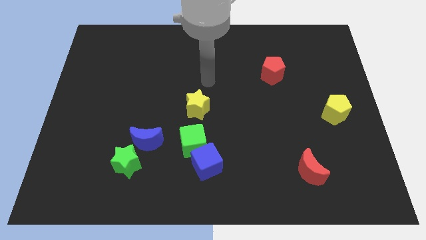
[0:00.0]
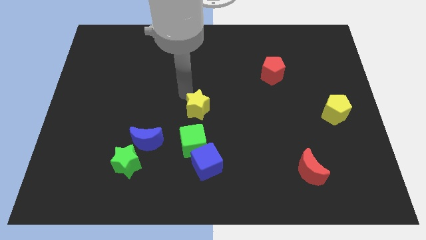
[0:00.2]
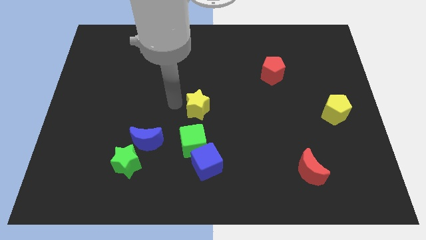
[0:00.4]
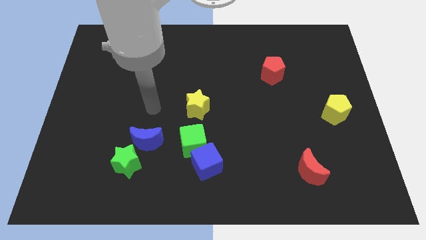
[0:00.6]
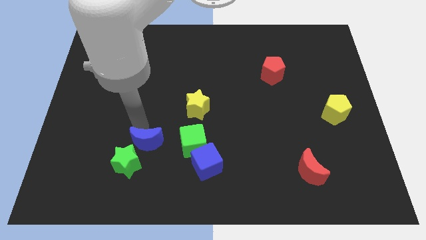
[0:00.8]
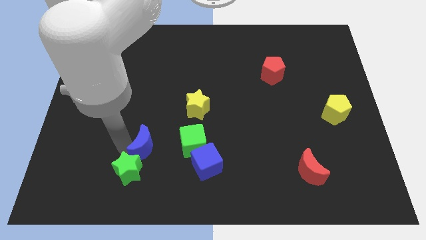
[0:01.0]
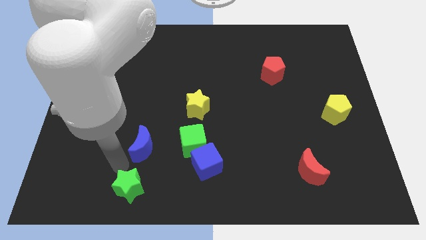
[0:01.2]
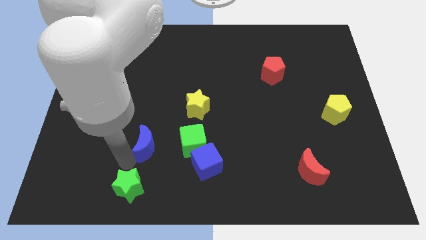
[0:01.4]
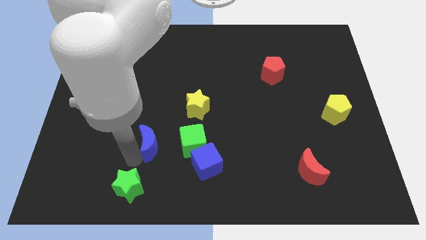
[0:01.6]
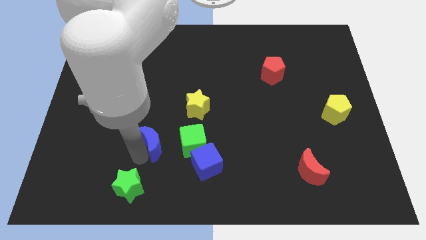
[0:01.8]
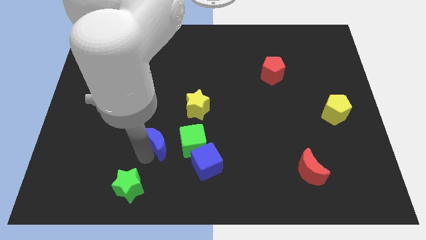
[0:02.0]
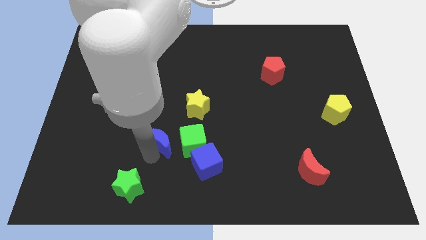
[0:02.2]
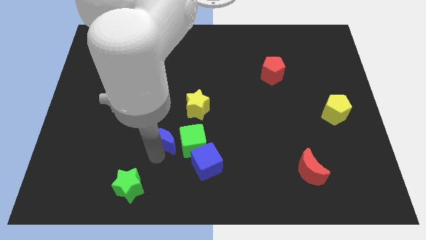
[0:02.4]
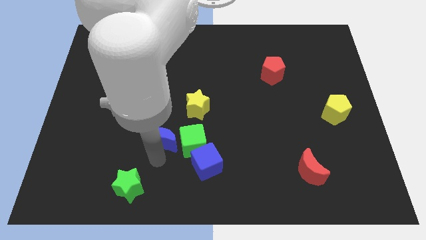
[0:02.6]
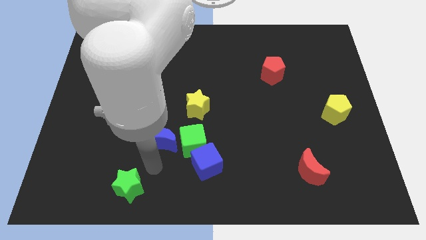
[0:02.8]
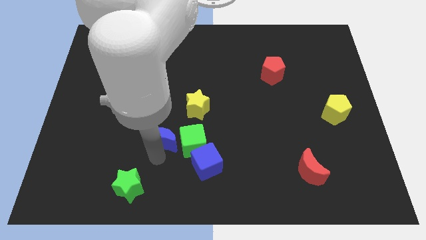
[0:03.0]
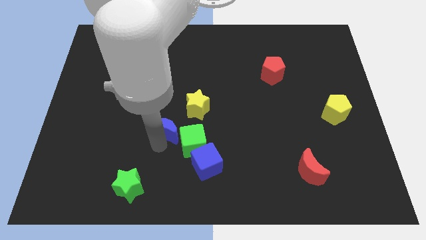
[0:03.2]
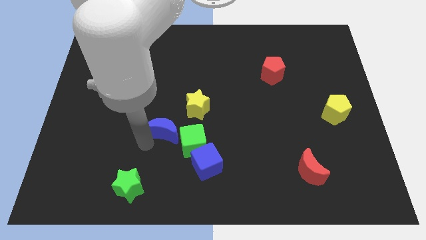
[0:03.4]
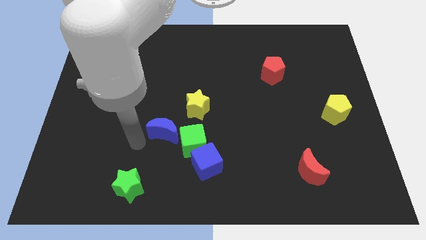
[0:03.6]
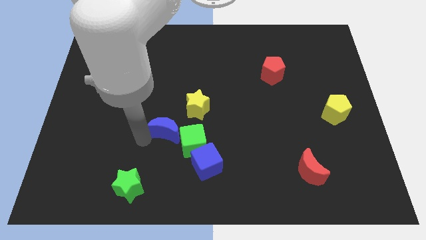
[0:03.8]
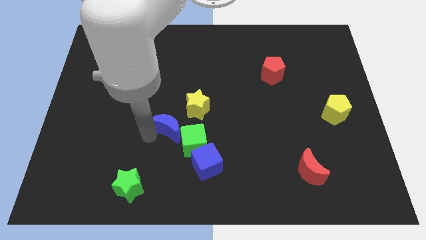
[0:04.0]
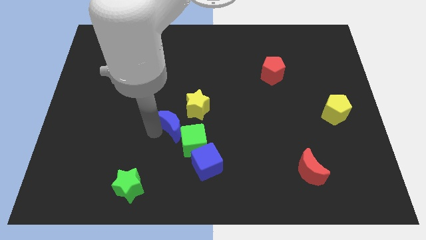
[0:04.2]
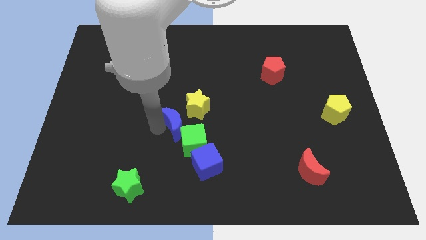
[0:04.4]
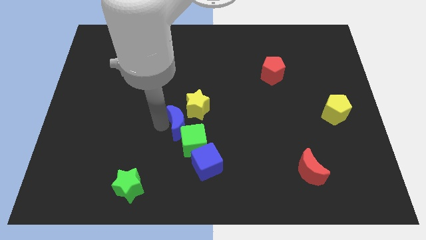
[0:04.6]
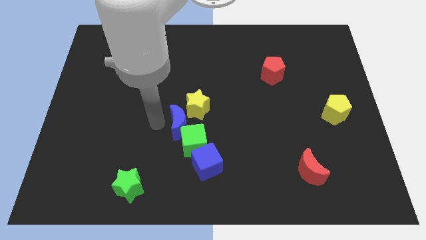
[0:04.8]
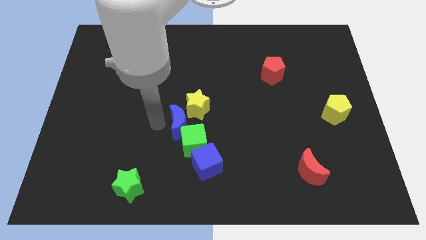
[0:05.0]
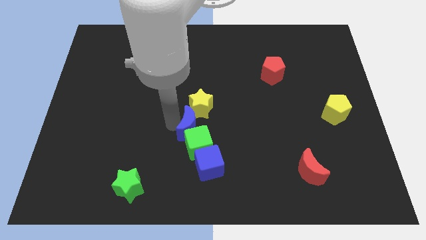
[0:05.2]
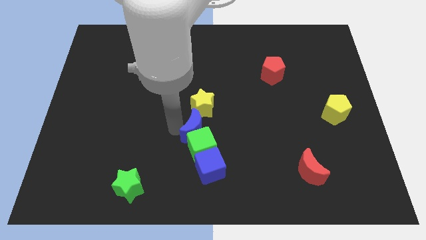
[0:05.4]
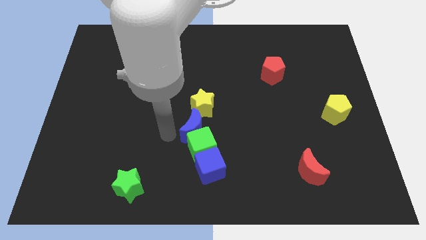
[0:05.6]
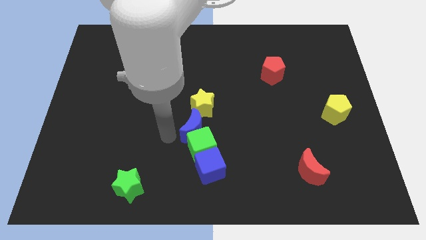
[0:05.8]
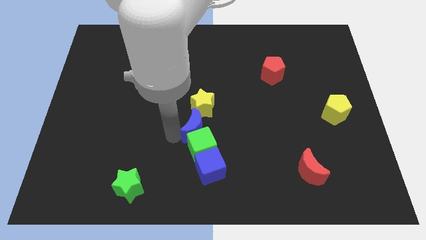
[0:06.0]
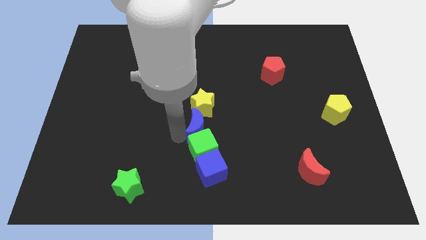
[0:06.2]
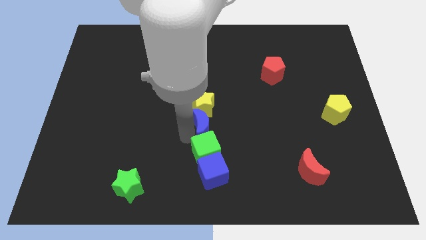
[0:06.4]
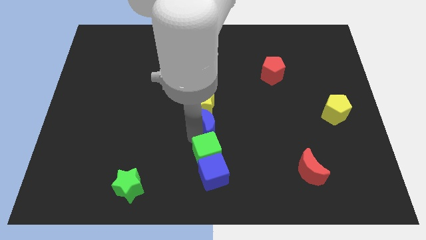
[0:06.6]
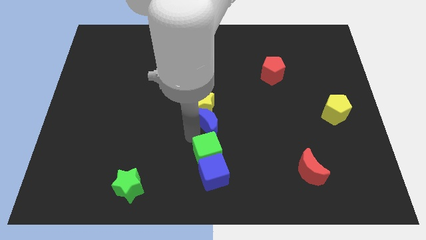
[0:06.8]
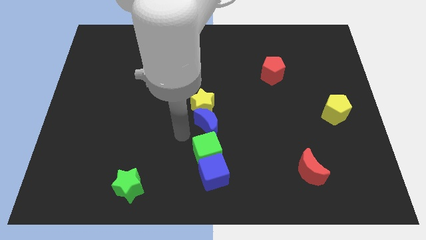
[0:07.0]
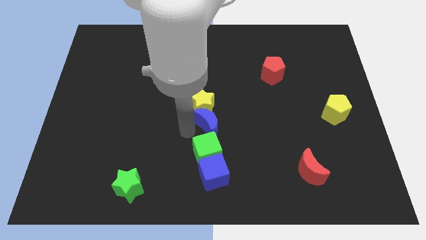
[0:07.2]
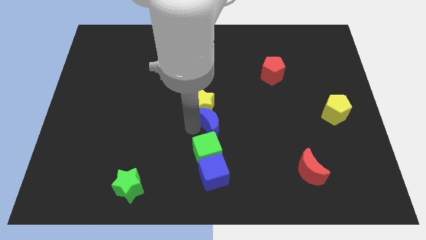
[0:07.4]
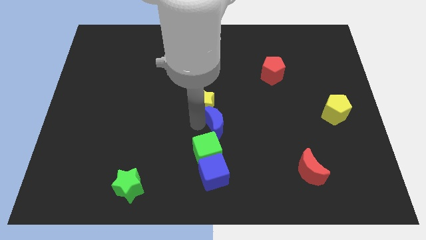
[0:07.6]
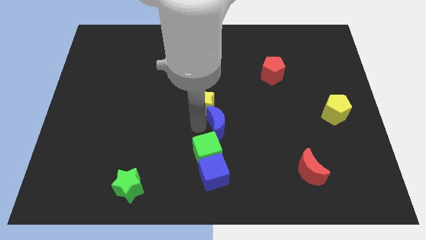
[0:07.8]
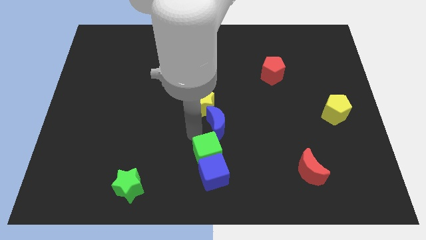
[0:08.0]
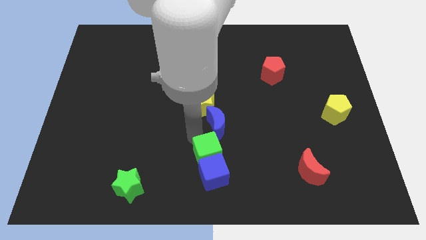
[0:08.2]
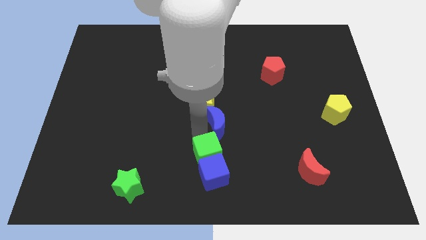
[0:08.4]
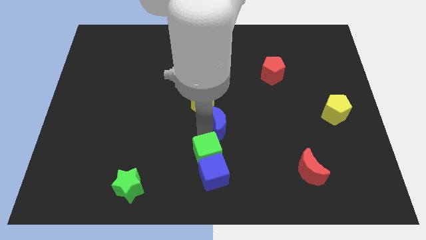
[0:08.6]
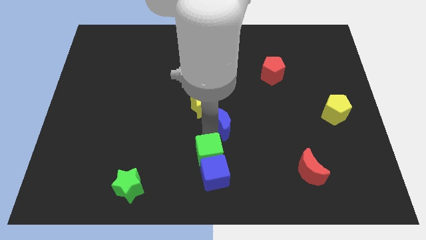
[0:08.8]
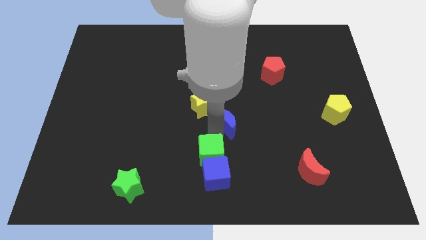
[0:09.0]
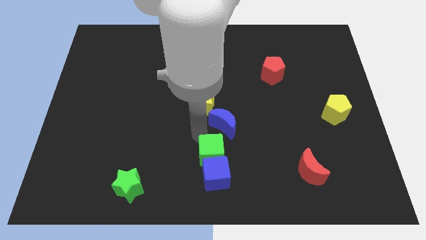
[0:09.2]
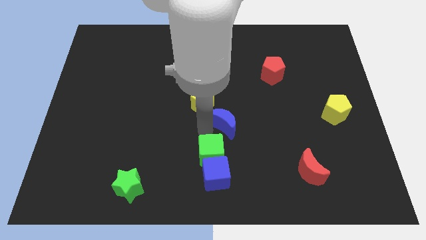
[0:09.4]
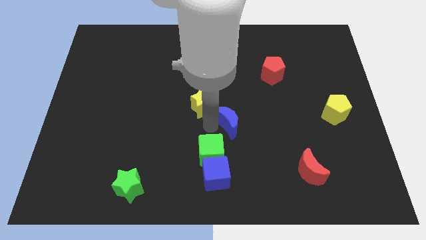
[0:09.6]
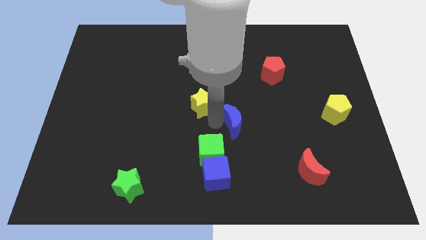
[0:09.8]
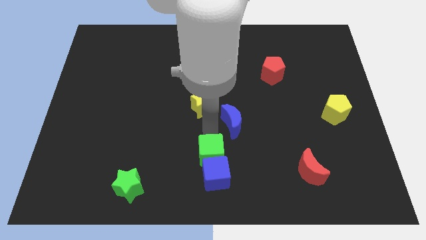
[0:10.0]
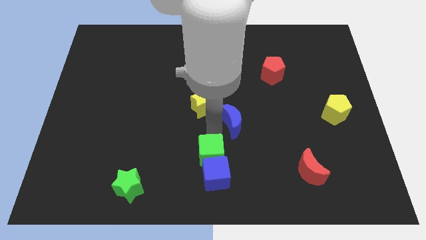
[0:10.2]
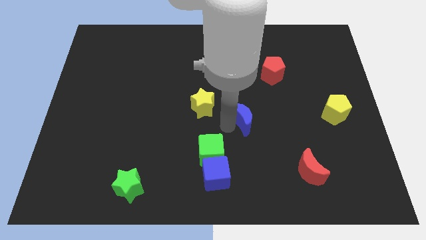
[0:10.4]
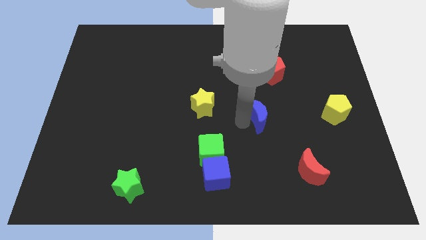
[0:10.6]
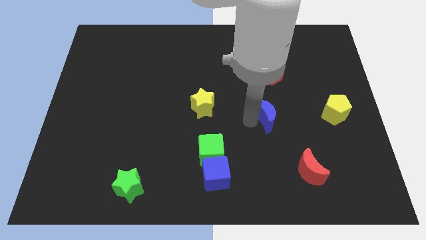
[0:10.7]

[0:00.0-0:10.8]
slide the blue moon below the red pentagon

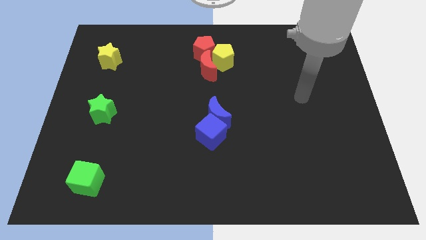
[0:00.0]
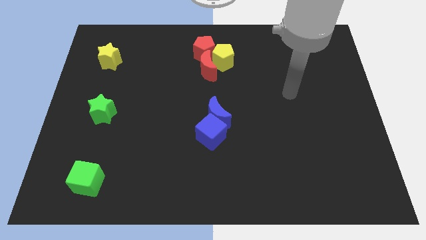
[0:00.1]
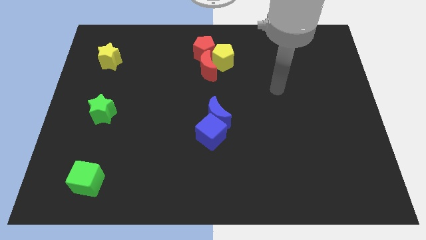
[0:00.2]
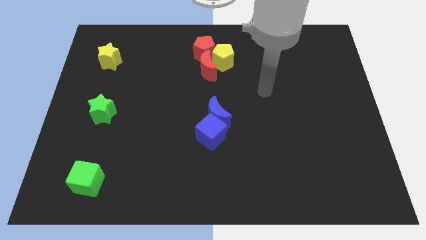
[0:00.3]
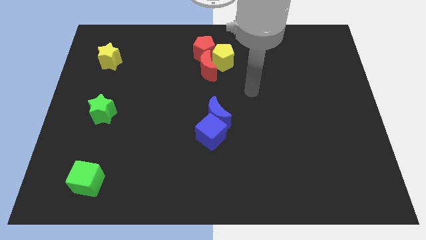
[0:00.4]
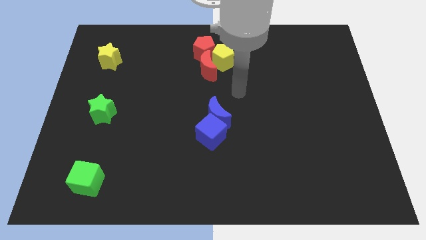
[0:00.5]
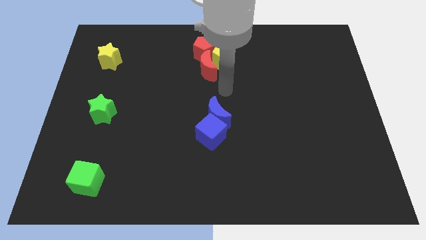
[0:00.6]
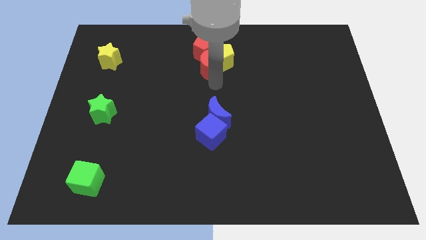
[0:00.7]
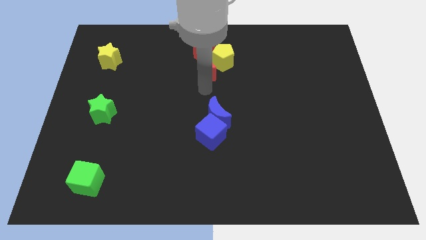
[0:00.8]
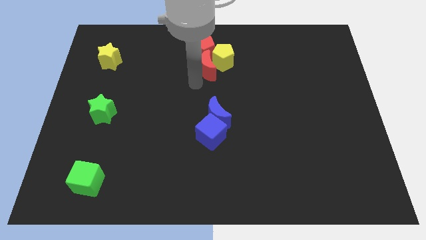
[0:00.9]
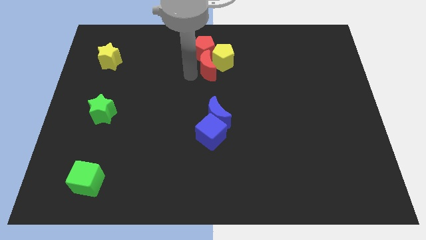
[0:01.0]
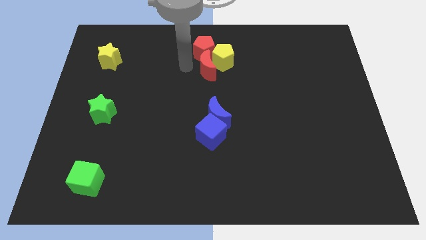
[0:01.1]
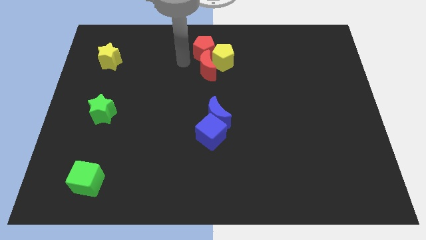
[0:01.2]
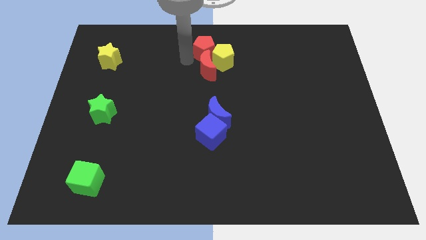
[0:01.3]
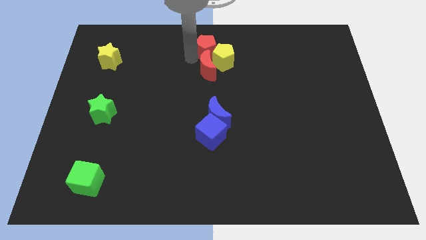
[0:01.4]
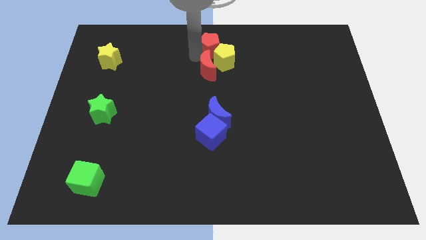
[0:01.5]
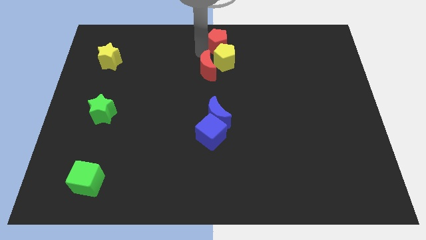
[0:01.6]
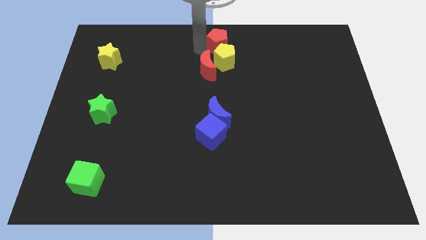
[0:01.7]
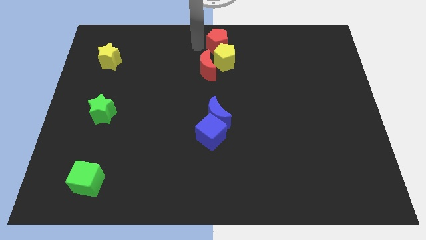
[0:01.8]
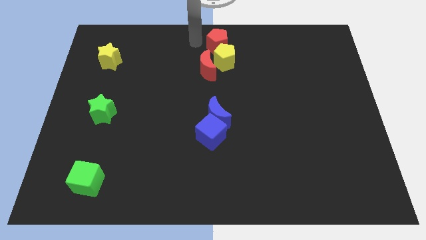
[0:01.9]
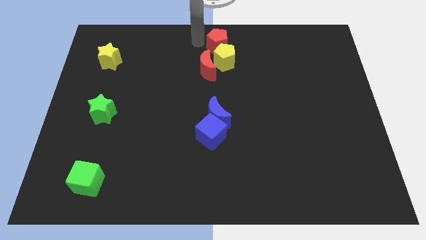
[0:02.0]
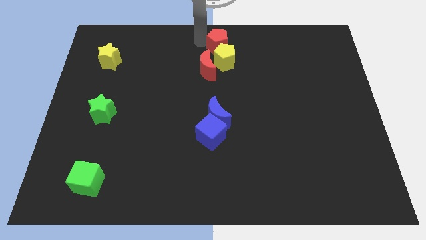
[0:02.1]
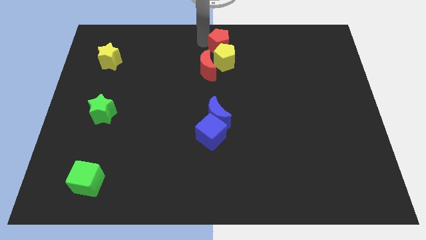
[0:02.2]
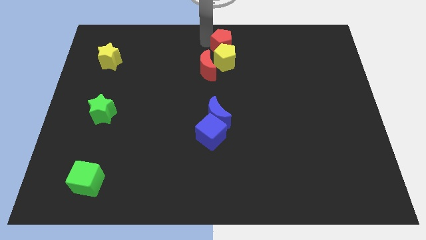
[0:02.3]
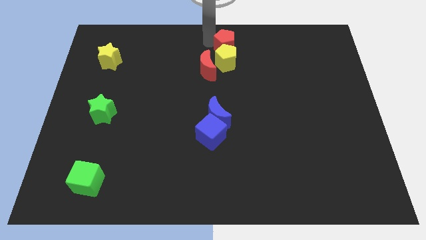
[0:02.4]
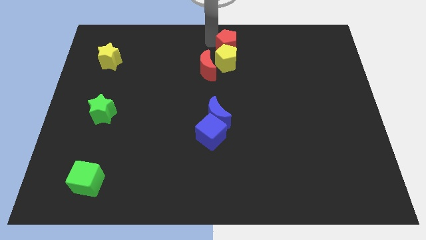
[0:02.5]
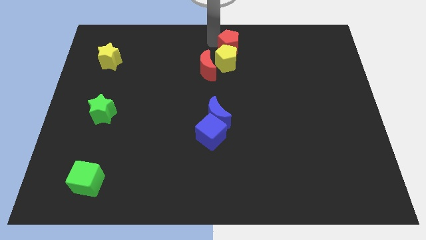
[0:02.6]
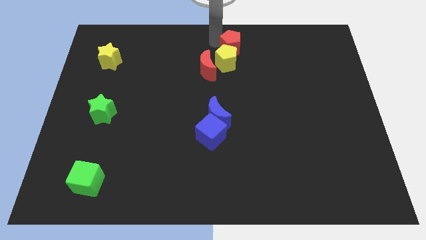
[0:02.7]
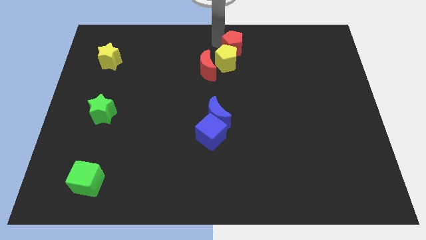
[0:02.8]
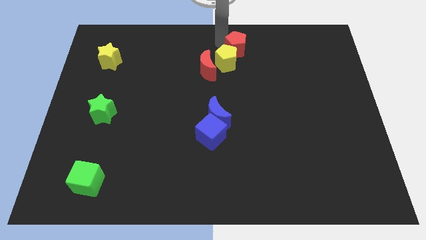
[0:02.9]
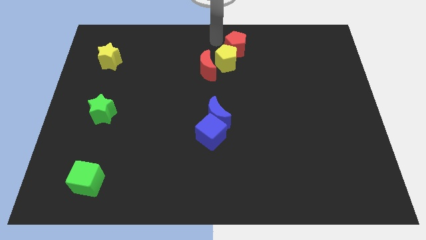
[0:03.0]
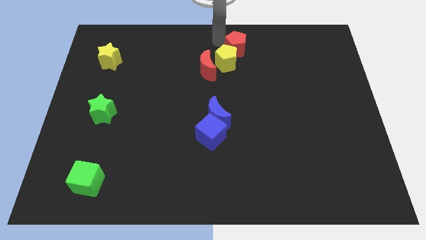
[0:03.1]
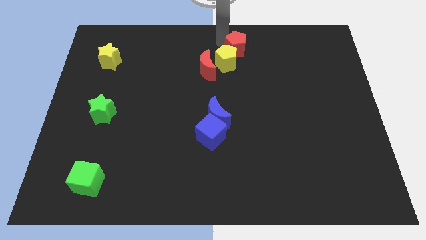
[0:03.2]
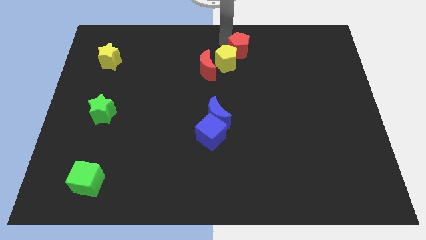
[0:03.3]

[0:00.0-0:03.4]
slide the red pentagon just right of the yellow pentagon
